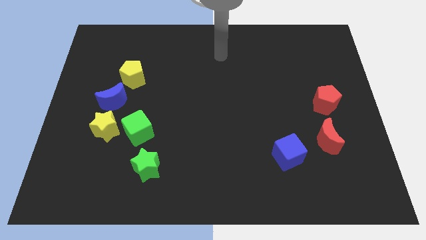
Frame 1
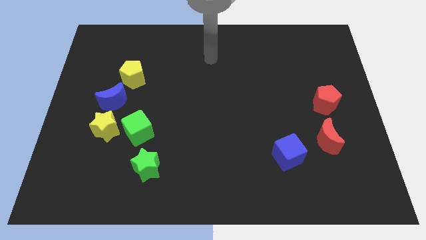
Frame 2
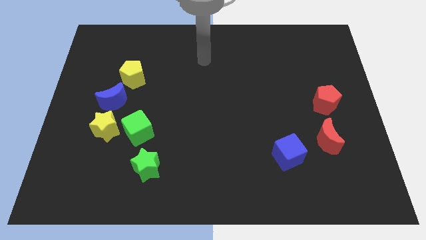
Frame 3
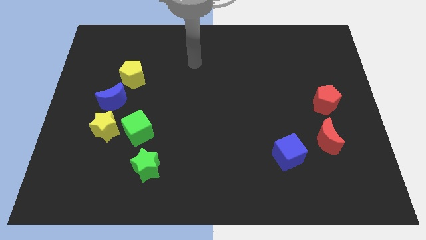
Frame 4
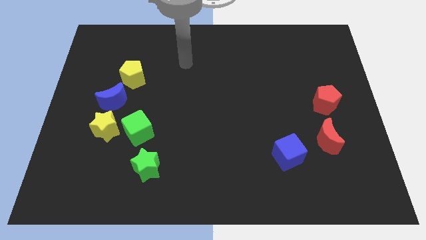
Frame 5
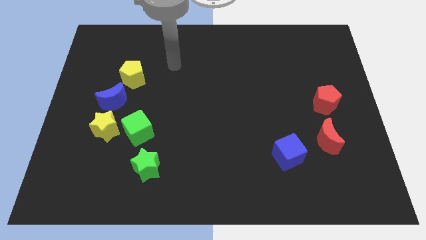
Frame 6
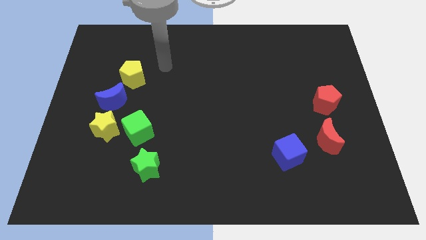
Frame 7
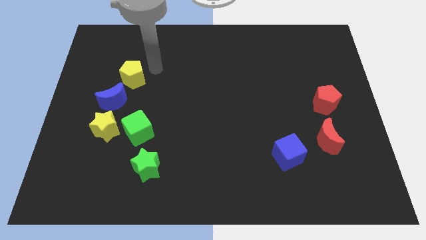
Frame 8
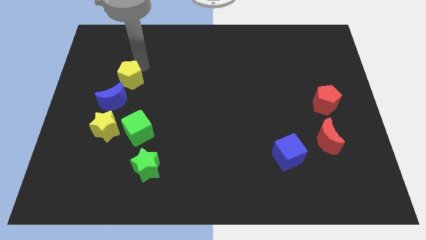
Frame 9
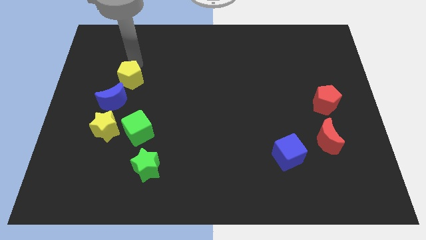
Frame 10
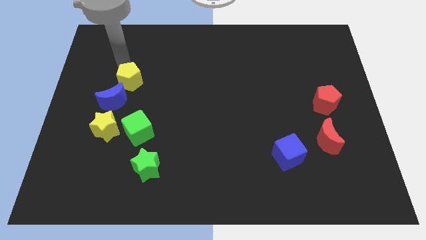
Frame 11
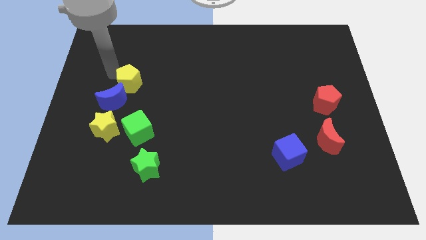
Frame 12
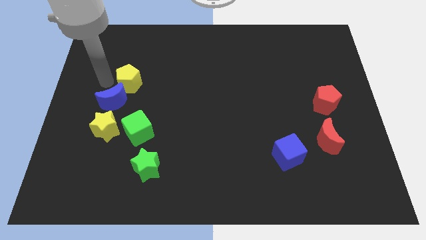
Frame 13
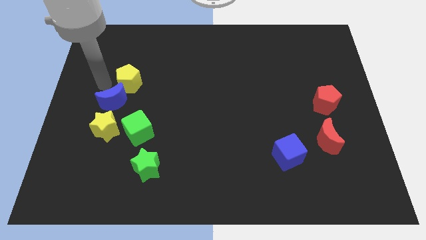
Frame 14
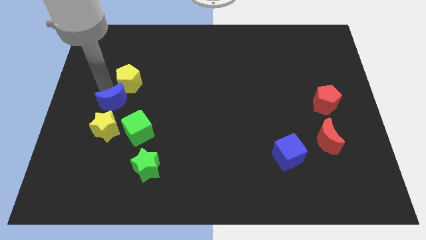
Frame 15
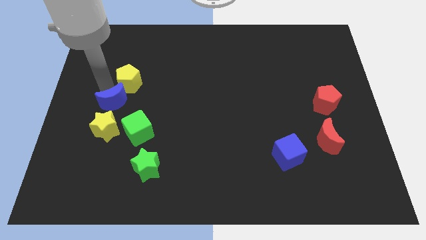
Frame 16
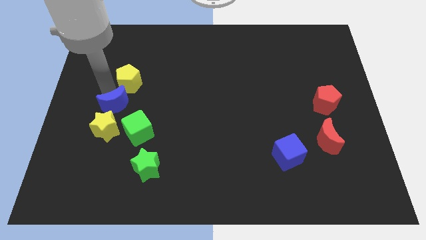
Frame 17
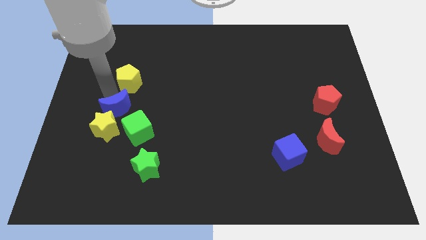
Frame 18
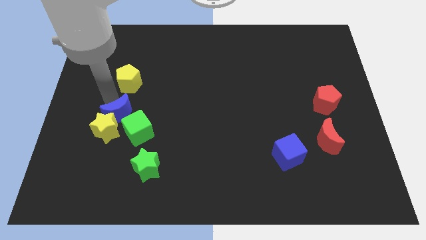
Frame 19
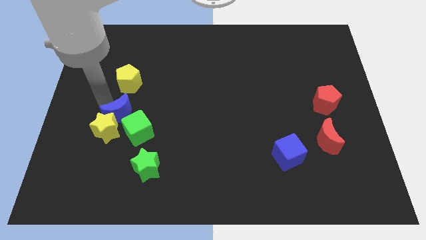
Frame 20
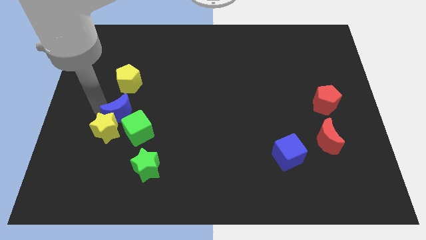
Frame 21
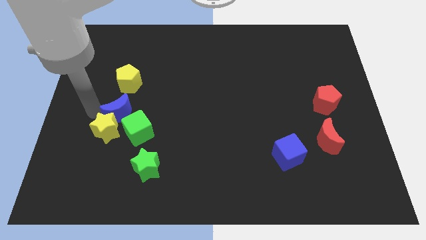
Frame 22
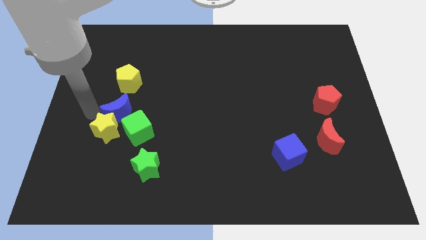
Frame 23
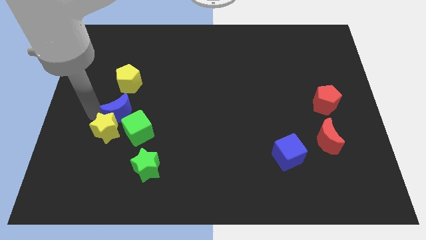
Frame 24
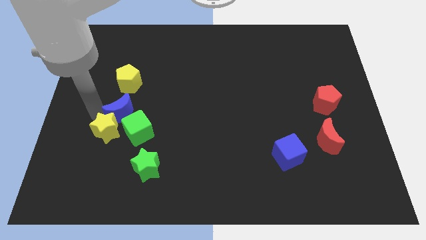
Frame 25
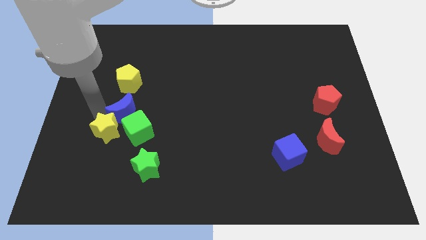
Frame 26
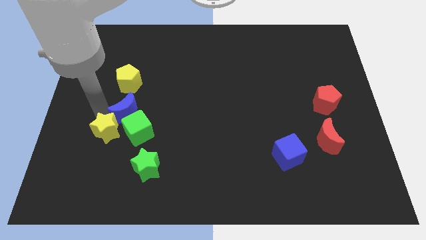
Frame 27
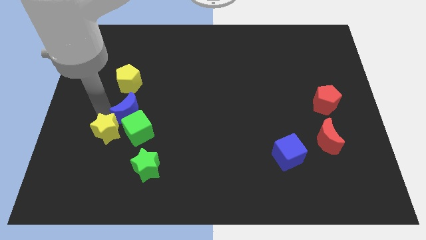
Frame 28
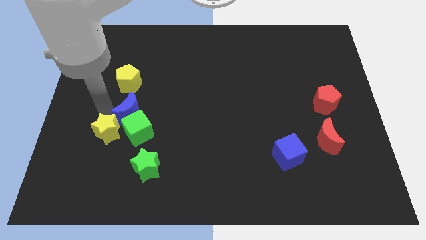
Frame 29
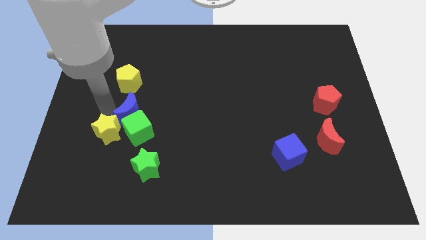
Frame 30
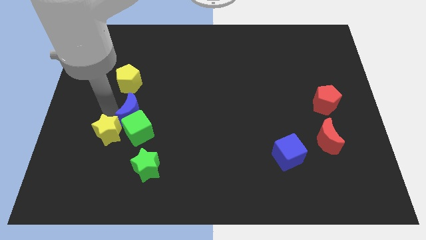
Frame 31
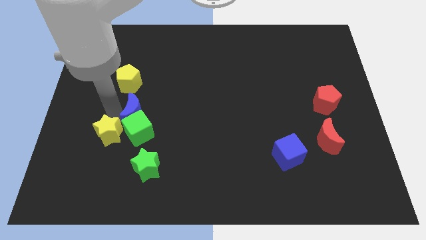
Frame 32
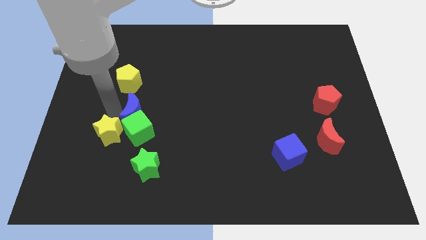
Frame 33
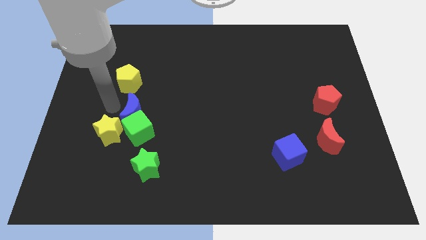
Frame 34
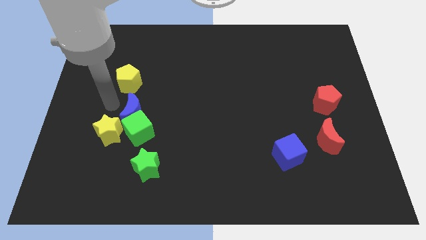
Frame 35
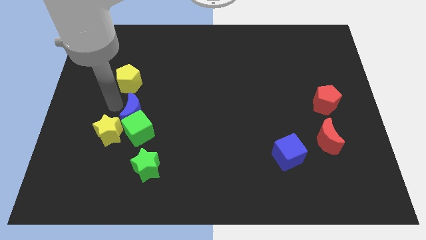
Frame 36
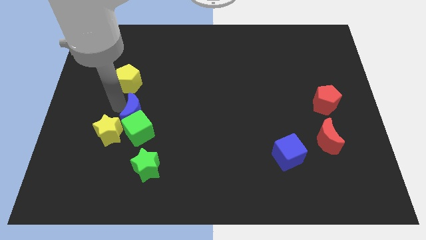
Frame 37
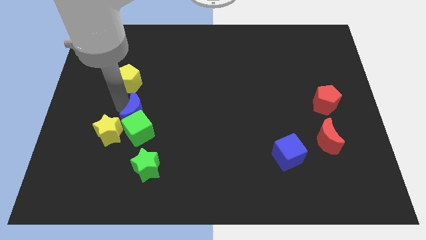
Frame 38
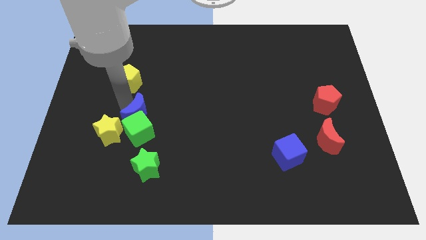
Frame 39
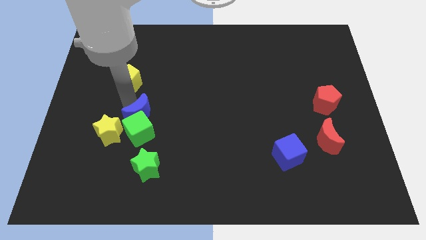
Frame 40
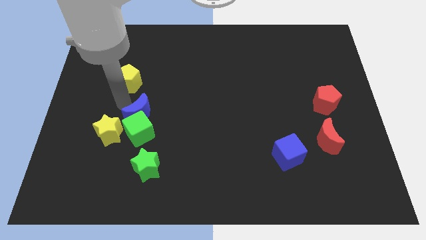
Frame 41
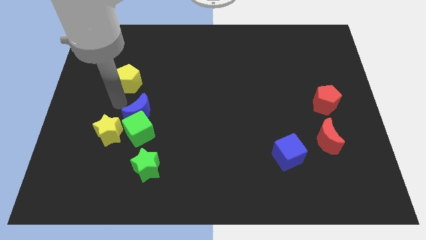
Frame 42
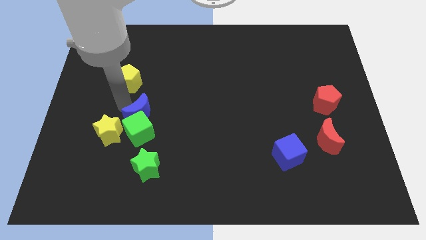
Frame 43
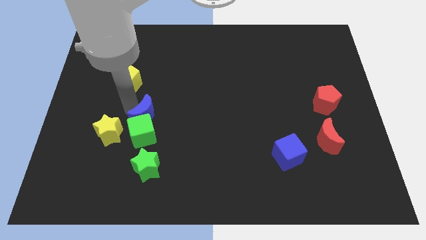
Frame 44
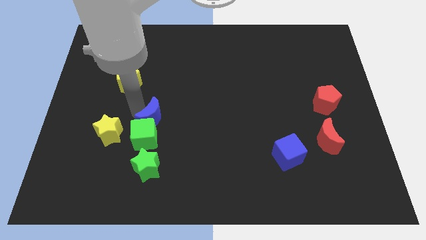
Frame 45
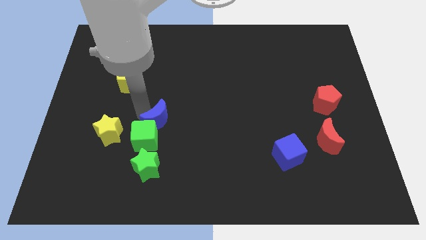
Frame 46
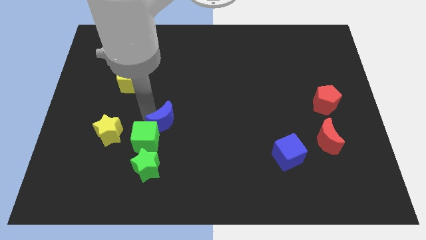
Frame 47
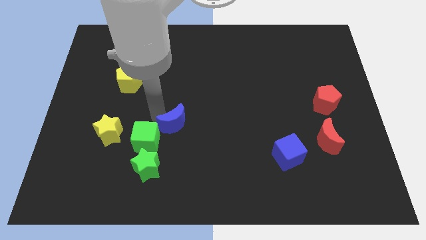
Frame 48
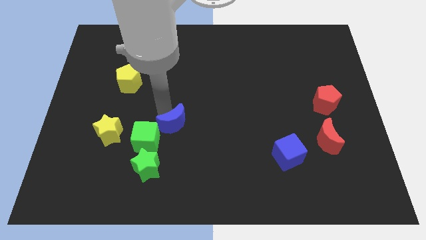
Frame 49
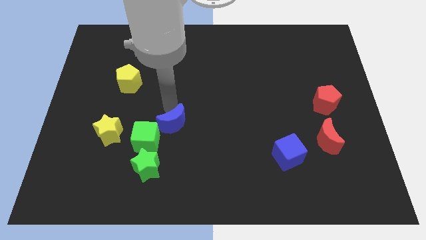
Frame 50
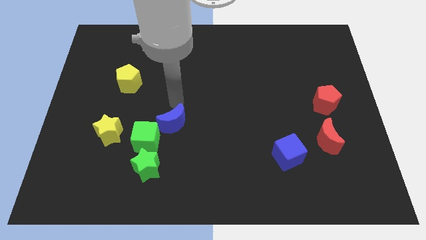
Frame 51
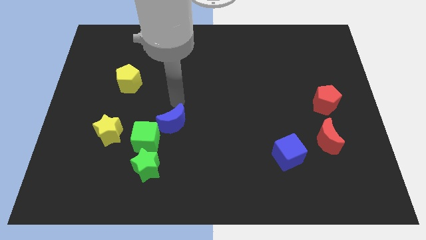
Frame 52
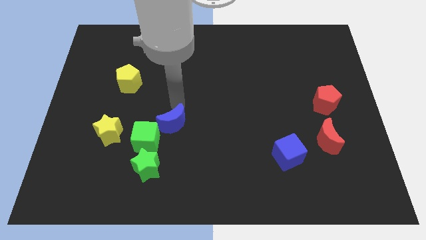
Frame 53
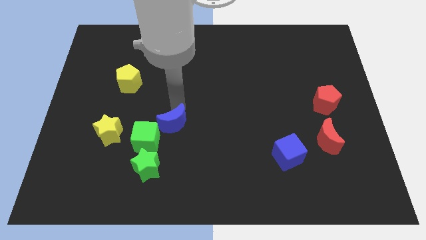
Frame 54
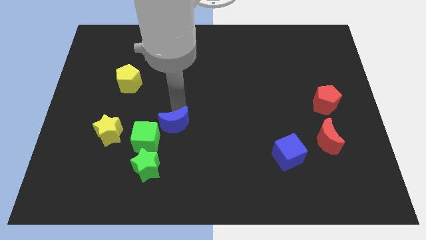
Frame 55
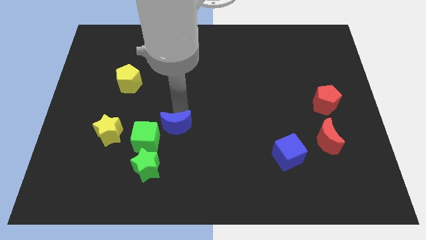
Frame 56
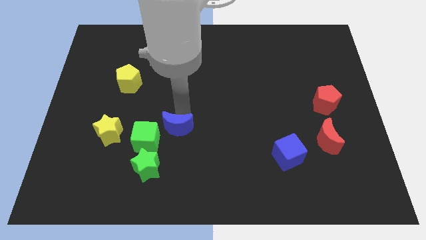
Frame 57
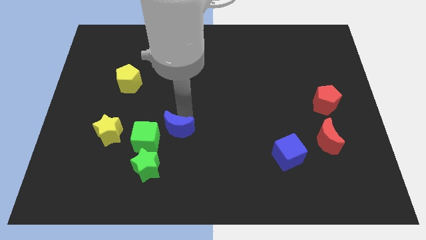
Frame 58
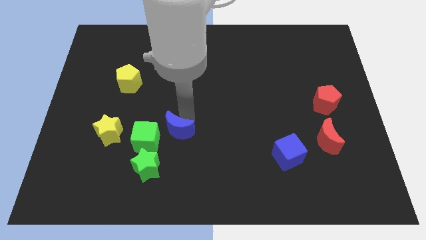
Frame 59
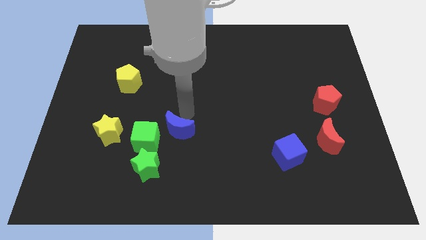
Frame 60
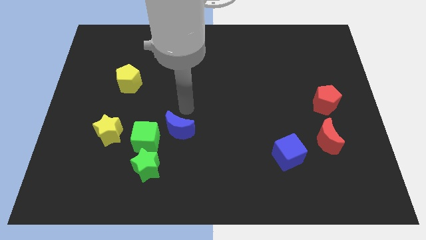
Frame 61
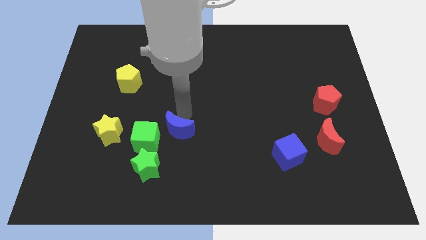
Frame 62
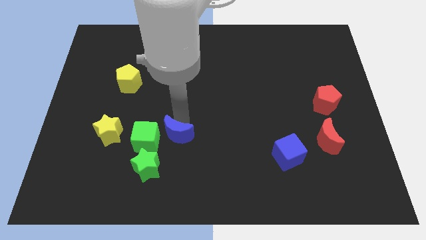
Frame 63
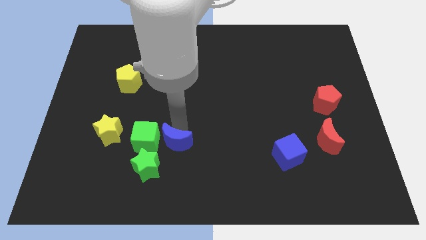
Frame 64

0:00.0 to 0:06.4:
push the blue moon to the bottom right side of the green cube

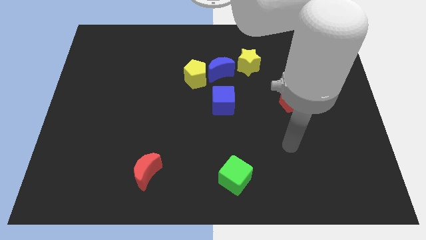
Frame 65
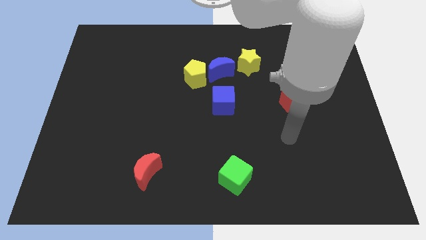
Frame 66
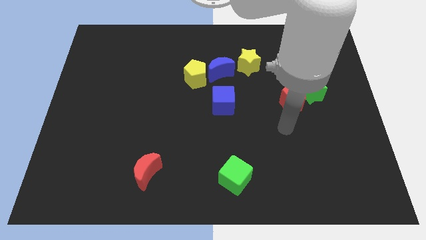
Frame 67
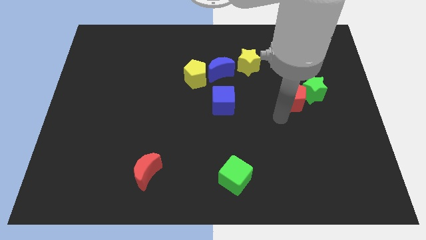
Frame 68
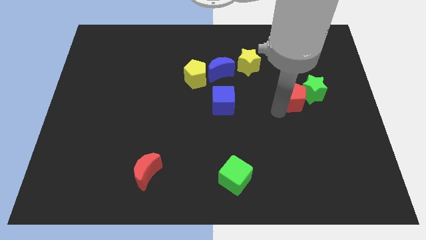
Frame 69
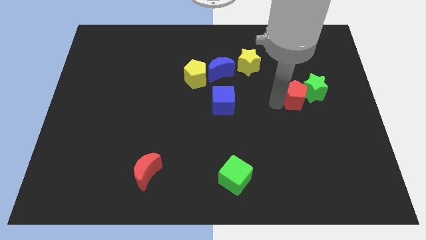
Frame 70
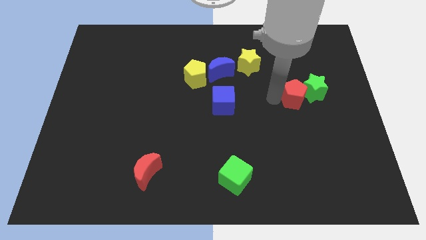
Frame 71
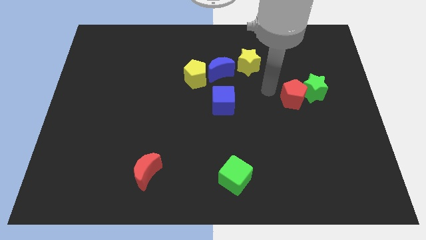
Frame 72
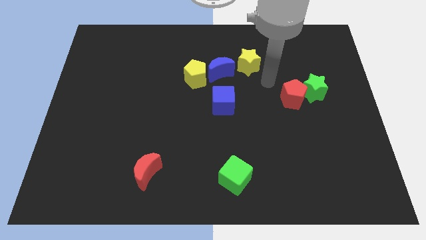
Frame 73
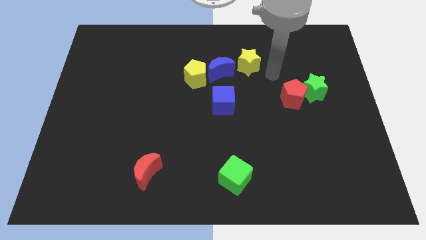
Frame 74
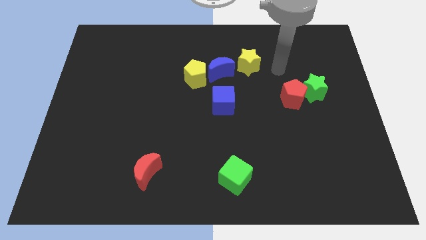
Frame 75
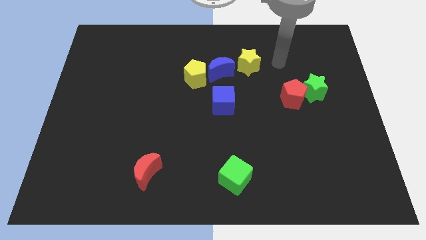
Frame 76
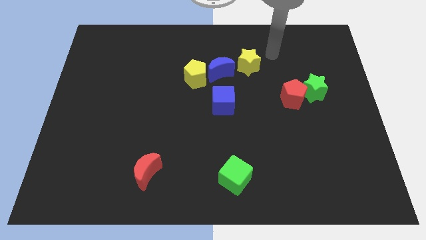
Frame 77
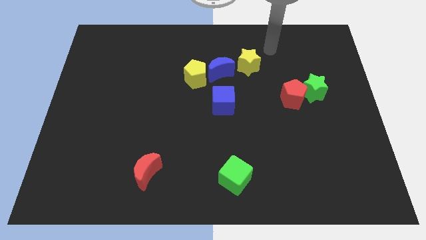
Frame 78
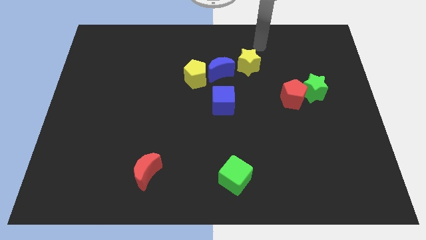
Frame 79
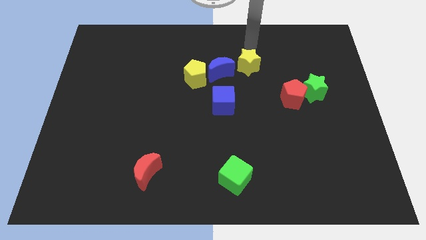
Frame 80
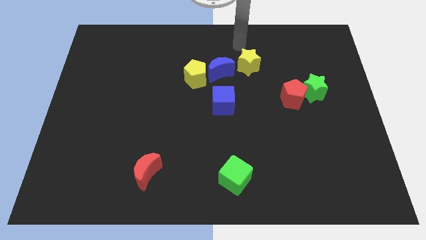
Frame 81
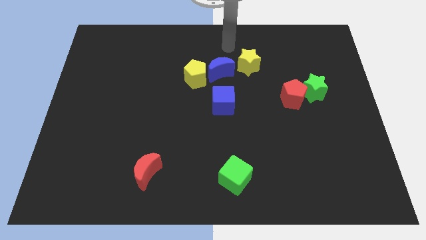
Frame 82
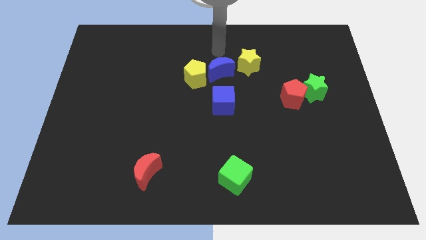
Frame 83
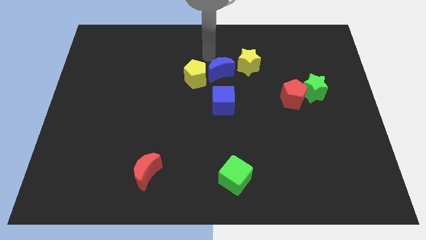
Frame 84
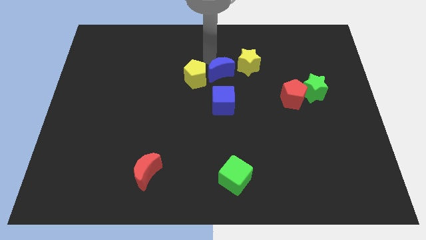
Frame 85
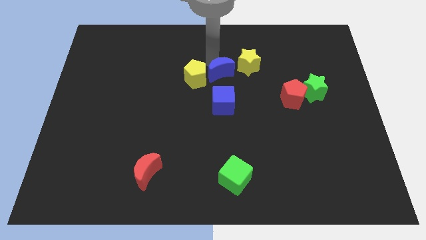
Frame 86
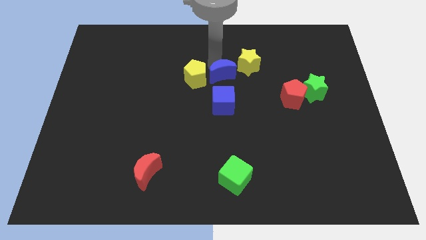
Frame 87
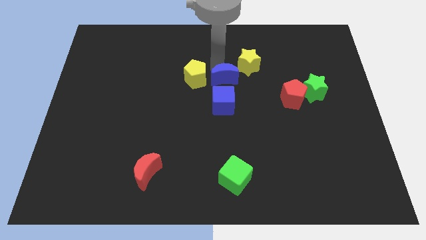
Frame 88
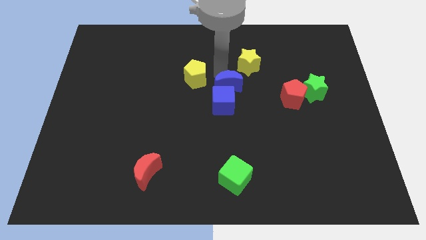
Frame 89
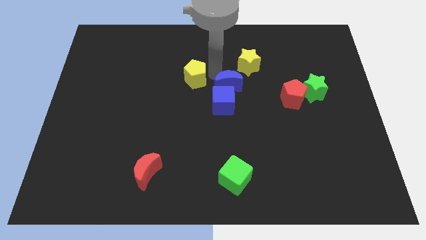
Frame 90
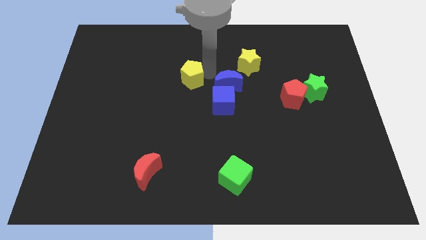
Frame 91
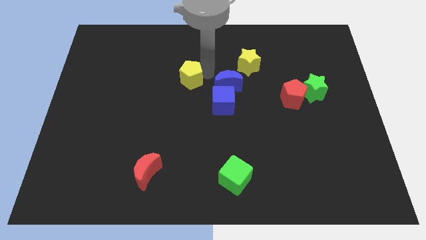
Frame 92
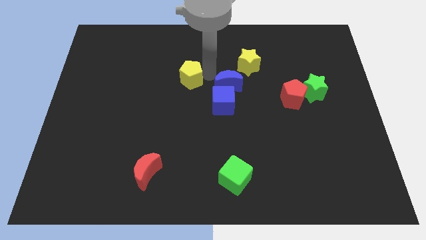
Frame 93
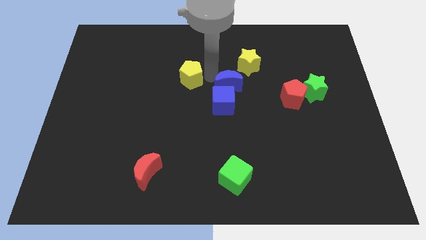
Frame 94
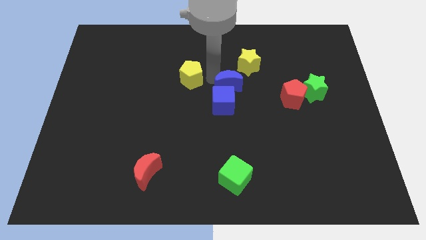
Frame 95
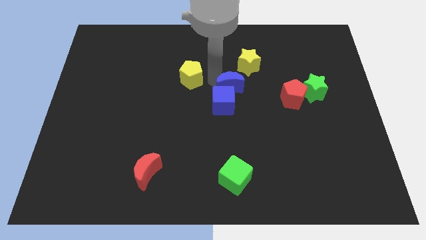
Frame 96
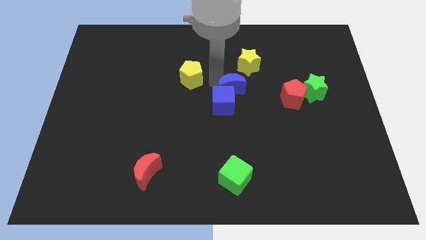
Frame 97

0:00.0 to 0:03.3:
slide the blue moon to the left of the red pentagon
